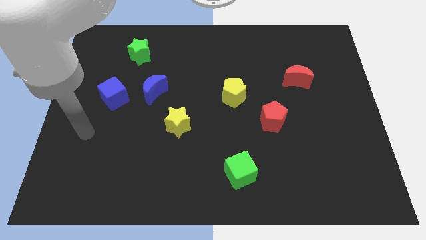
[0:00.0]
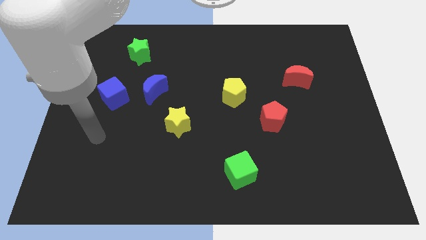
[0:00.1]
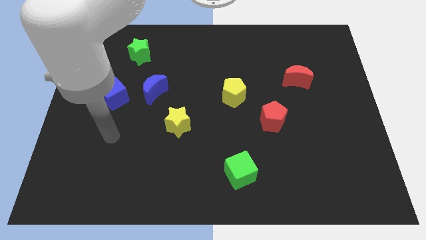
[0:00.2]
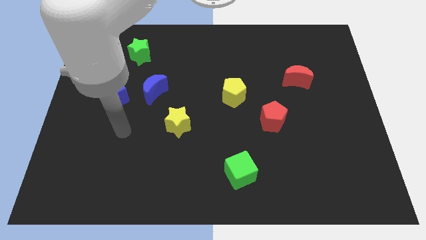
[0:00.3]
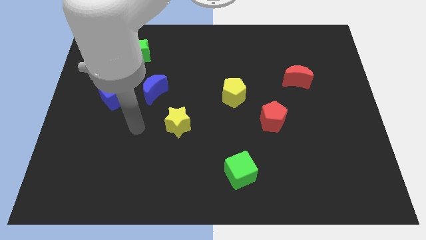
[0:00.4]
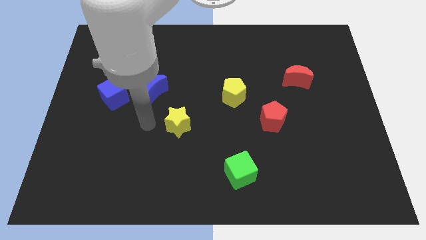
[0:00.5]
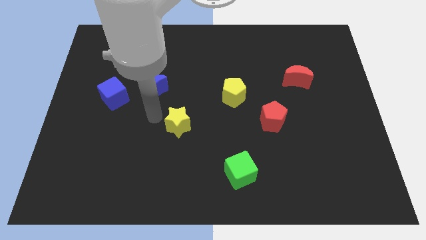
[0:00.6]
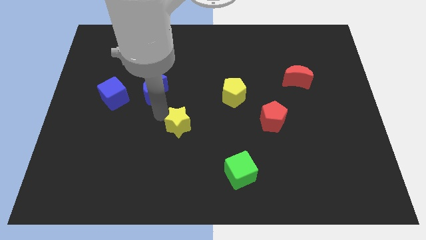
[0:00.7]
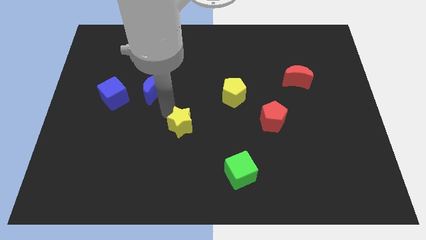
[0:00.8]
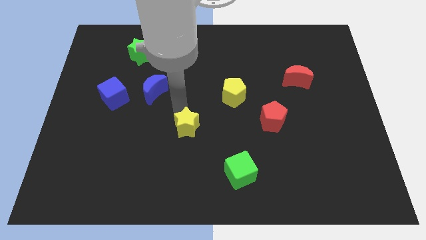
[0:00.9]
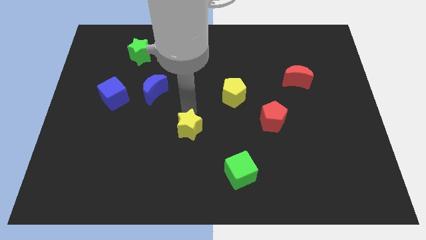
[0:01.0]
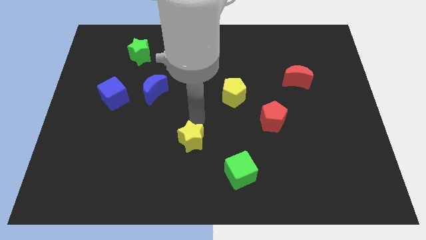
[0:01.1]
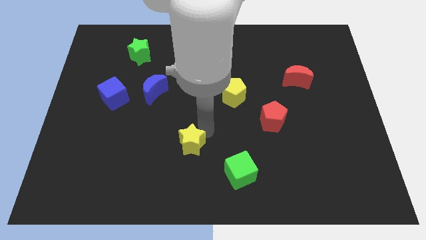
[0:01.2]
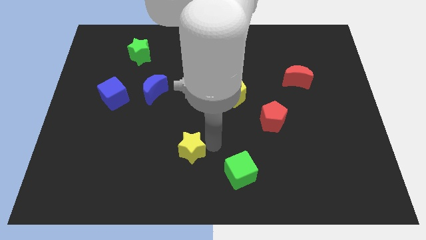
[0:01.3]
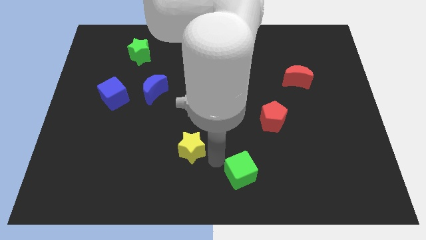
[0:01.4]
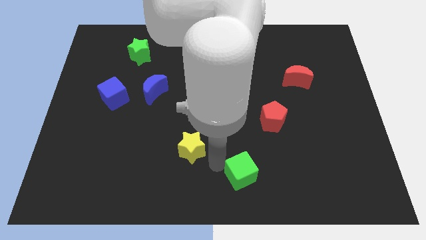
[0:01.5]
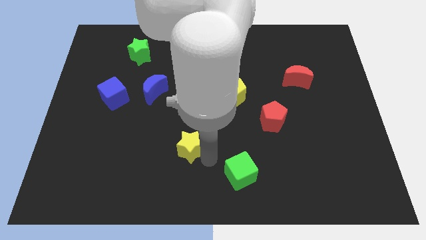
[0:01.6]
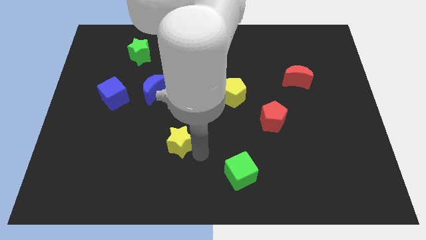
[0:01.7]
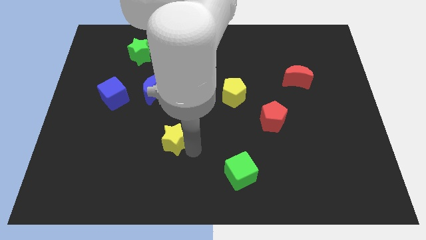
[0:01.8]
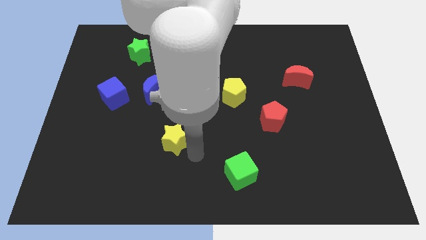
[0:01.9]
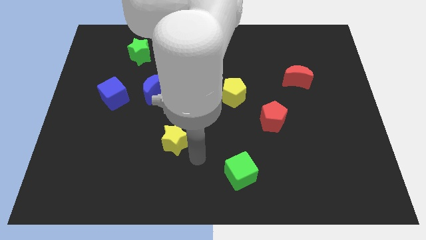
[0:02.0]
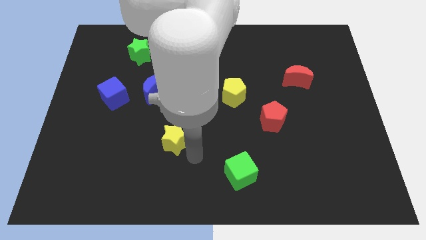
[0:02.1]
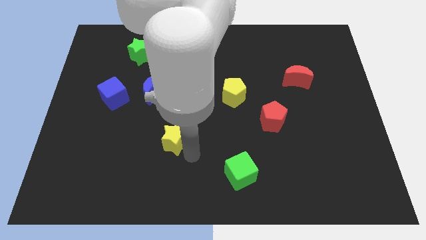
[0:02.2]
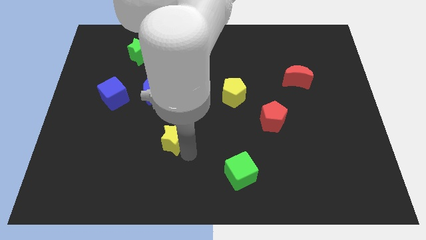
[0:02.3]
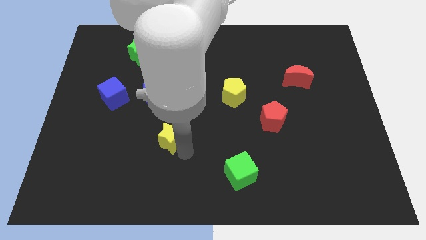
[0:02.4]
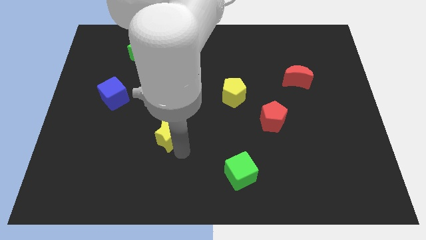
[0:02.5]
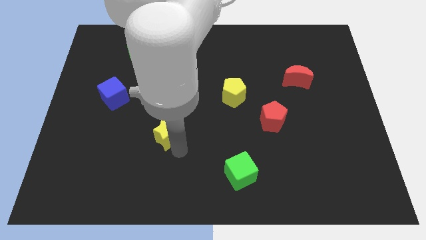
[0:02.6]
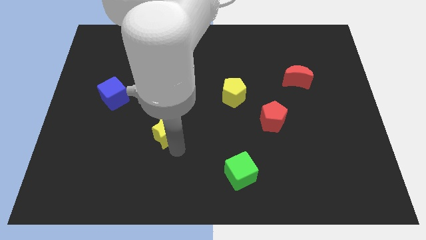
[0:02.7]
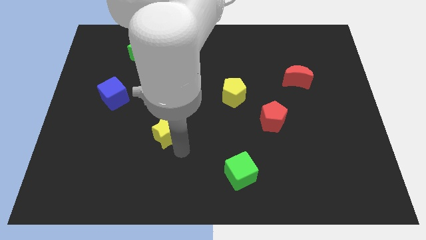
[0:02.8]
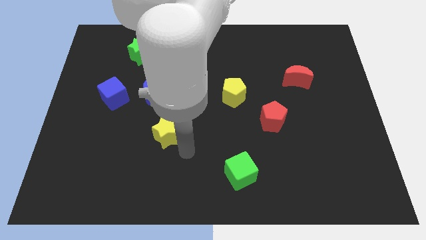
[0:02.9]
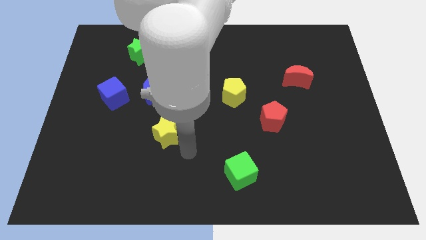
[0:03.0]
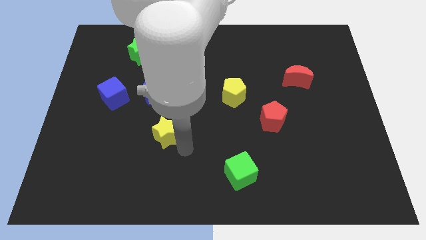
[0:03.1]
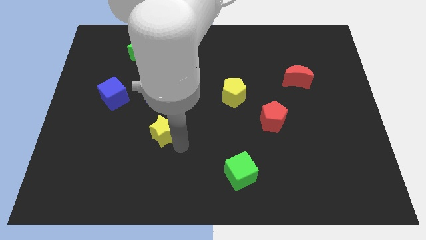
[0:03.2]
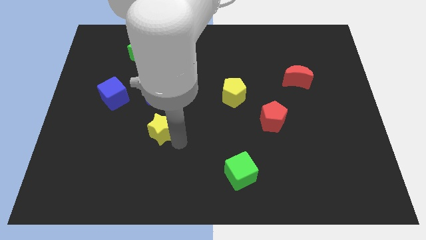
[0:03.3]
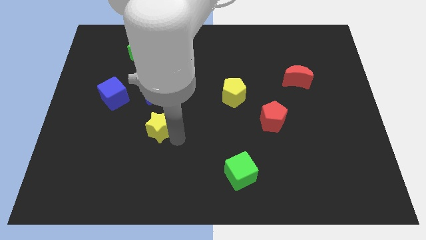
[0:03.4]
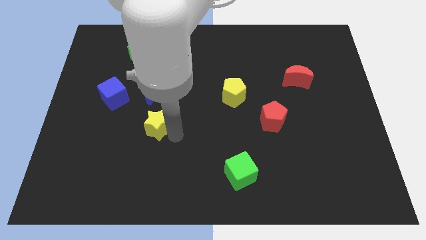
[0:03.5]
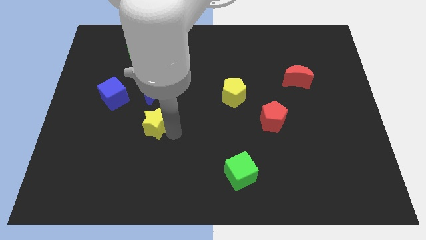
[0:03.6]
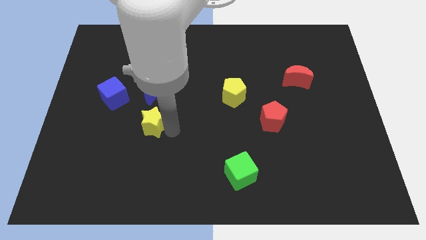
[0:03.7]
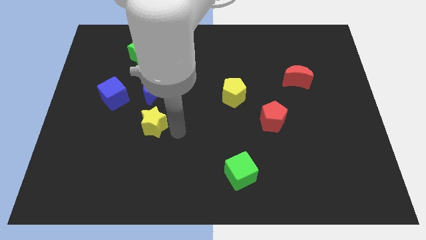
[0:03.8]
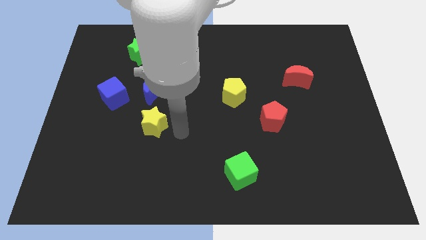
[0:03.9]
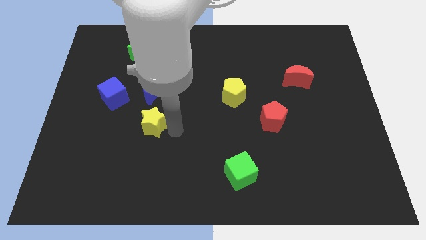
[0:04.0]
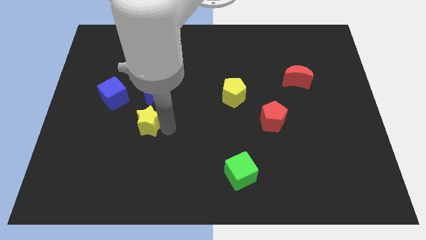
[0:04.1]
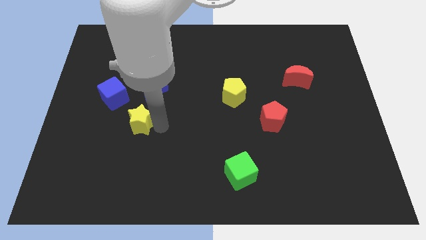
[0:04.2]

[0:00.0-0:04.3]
push the yellow star left somewhat

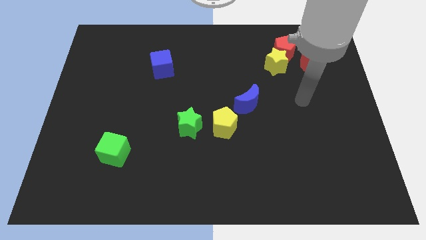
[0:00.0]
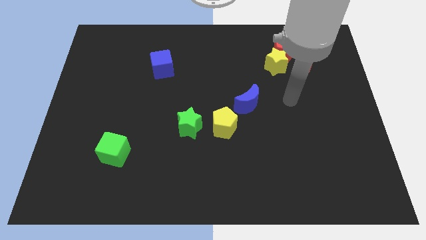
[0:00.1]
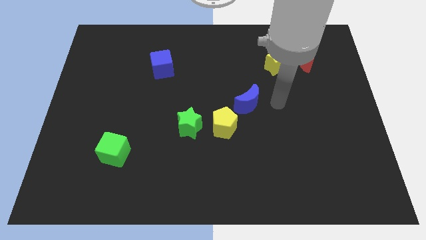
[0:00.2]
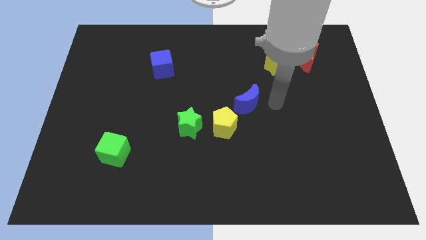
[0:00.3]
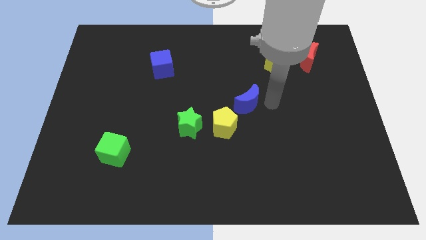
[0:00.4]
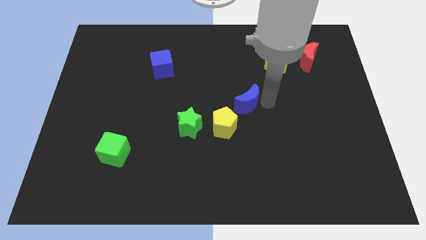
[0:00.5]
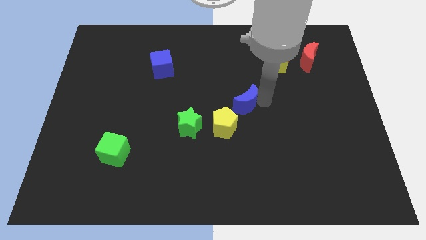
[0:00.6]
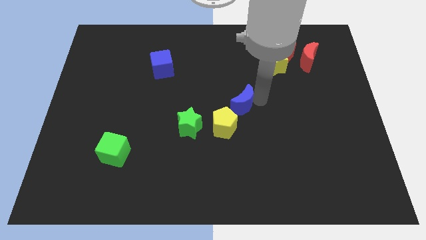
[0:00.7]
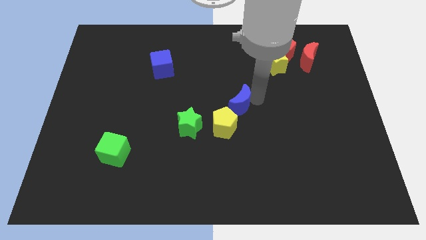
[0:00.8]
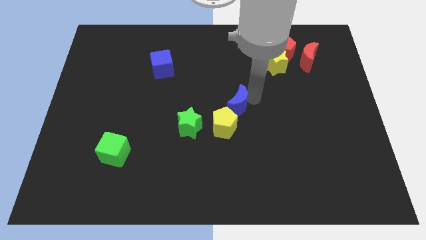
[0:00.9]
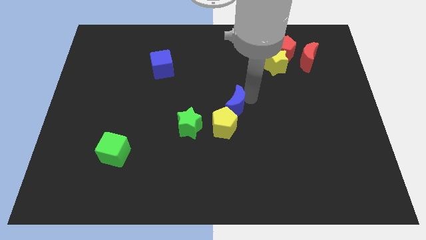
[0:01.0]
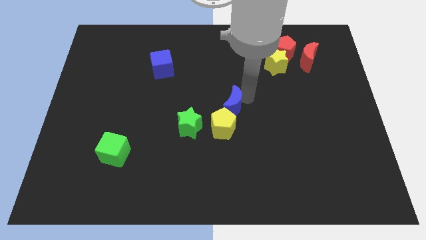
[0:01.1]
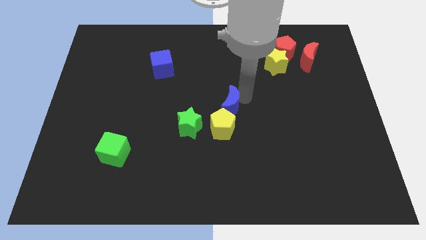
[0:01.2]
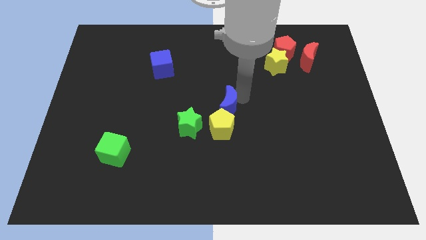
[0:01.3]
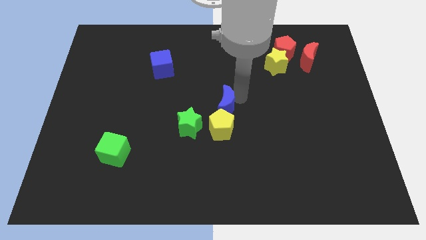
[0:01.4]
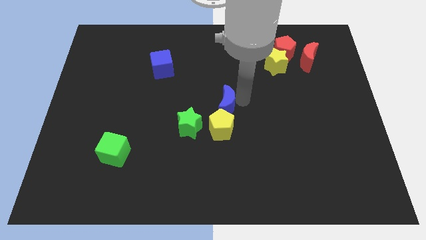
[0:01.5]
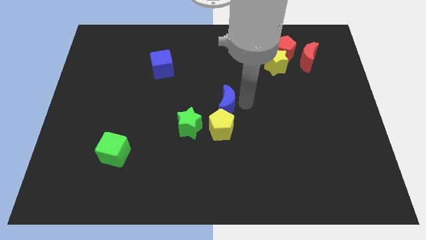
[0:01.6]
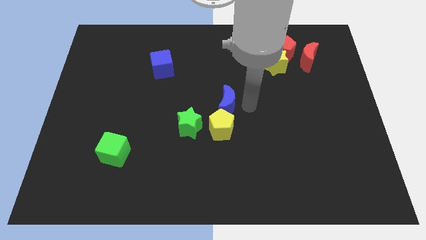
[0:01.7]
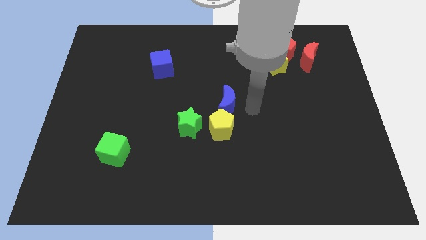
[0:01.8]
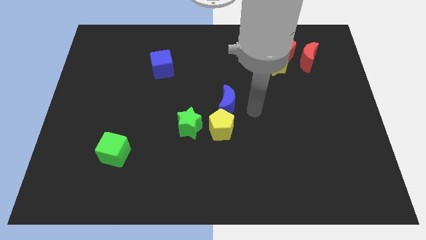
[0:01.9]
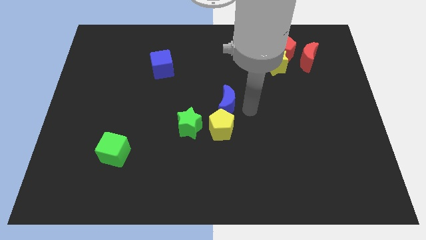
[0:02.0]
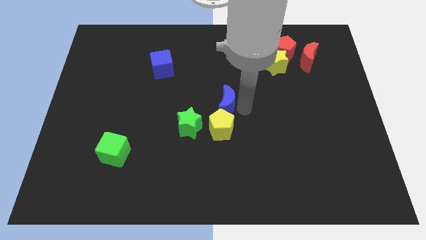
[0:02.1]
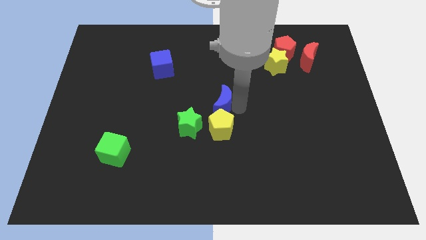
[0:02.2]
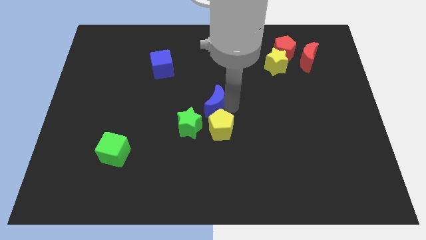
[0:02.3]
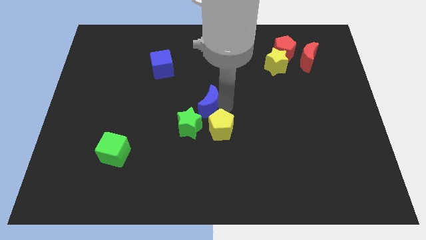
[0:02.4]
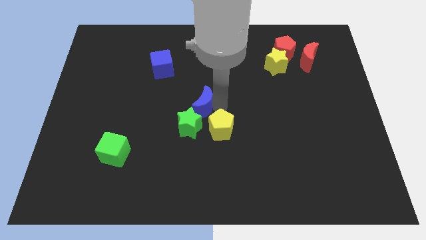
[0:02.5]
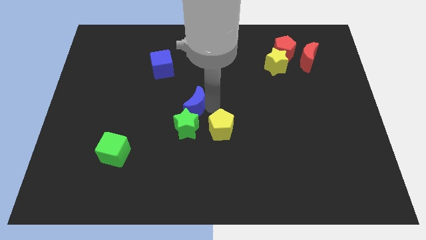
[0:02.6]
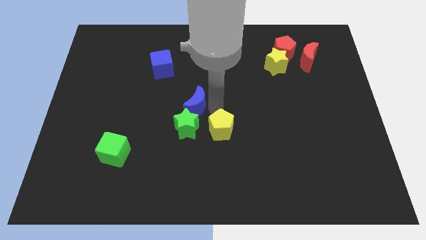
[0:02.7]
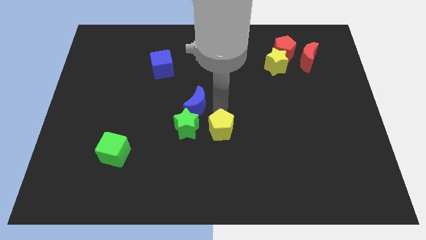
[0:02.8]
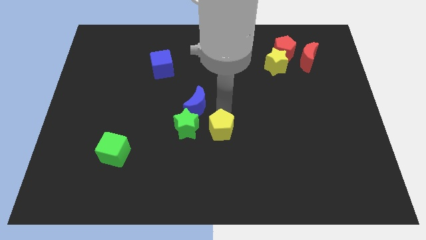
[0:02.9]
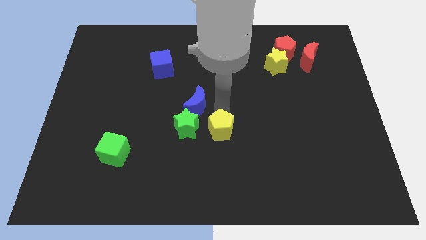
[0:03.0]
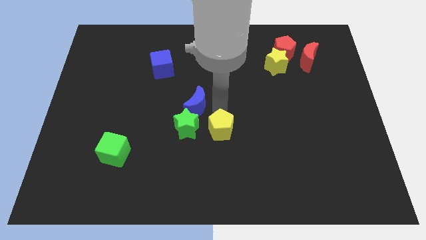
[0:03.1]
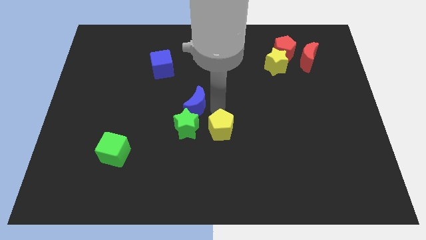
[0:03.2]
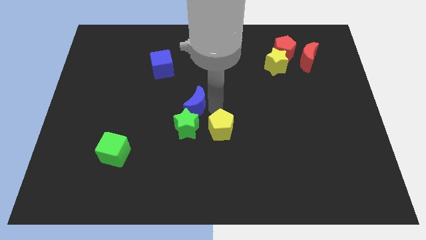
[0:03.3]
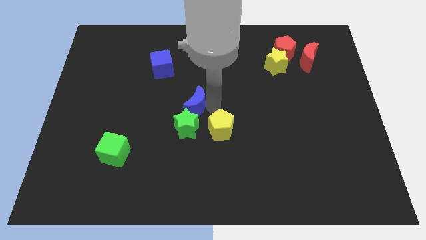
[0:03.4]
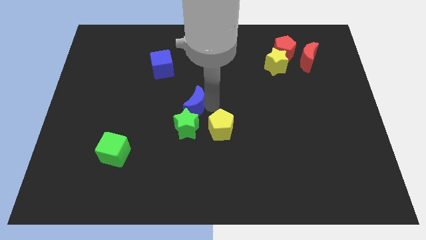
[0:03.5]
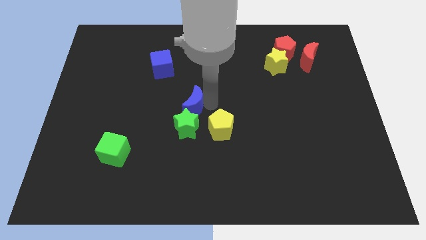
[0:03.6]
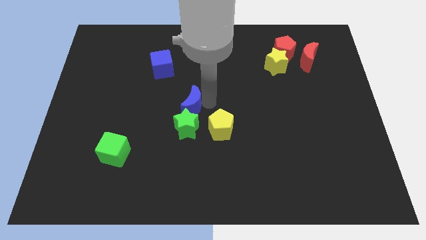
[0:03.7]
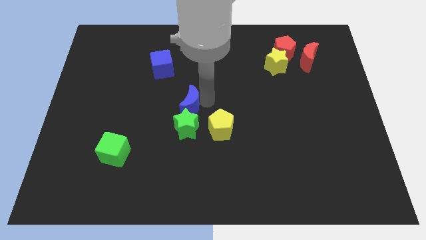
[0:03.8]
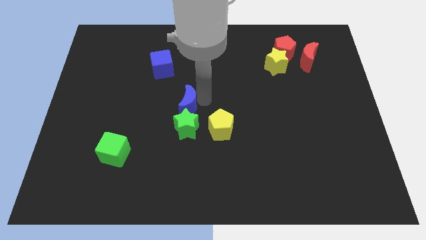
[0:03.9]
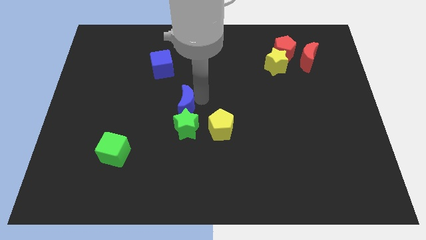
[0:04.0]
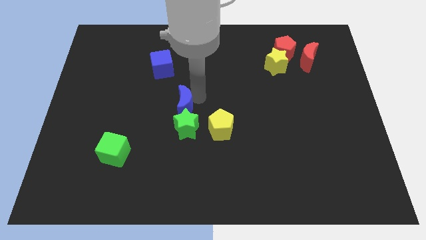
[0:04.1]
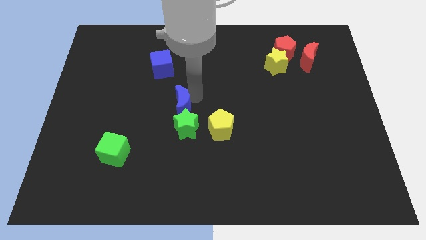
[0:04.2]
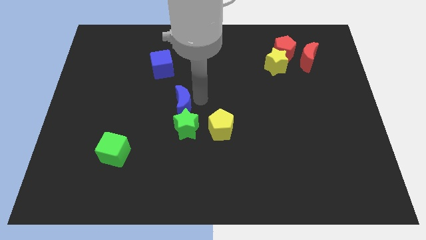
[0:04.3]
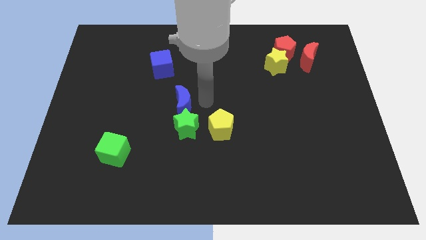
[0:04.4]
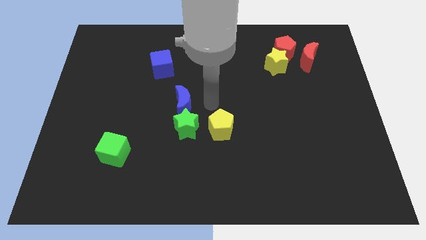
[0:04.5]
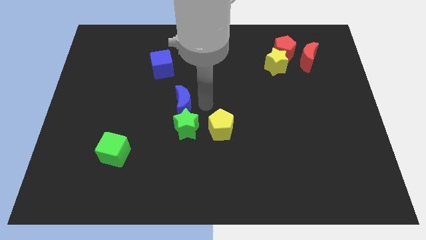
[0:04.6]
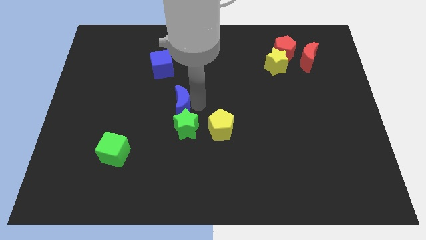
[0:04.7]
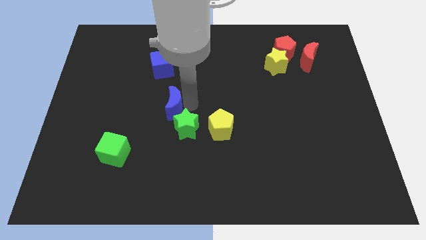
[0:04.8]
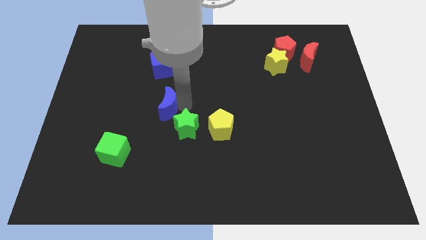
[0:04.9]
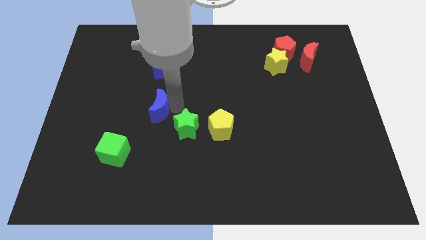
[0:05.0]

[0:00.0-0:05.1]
push the blue moon to the left
